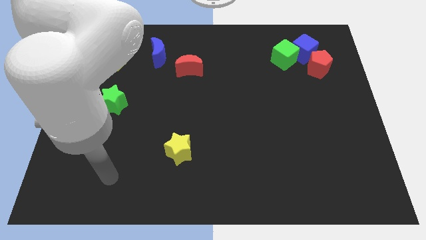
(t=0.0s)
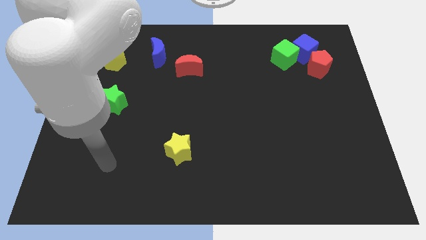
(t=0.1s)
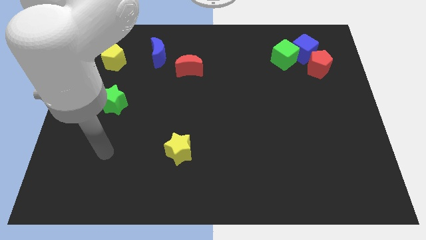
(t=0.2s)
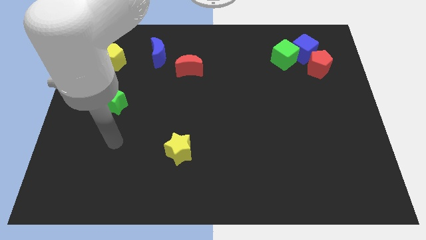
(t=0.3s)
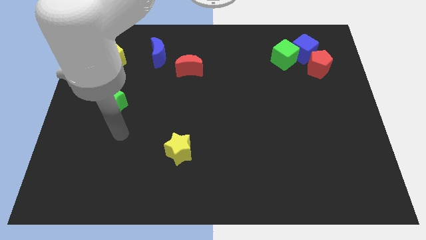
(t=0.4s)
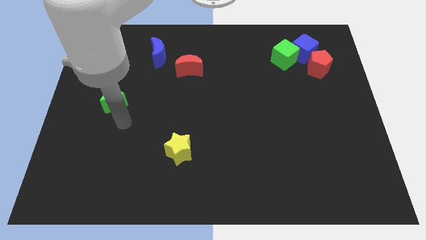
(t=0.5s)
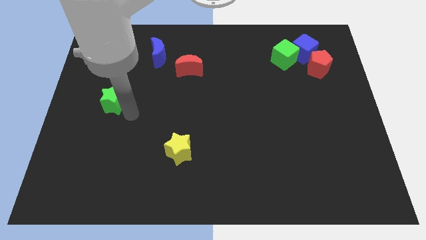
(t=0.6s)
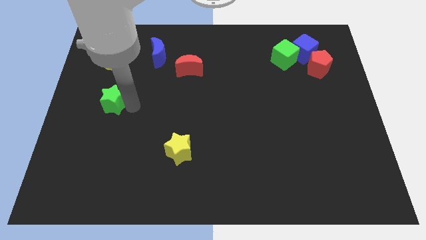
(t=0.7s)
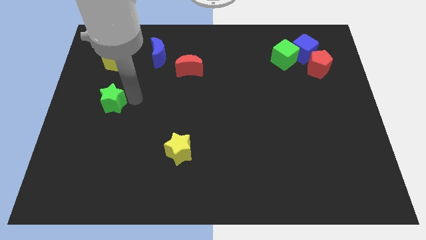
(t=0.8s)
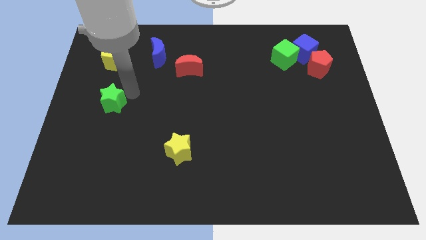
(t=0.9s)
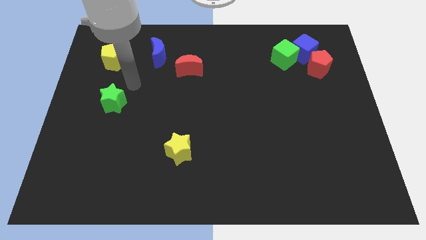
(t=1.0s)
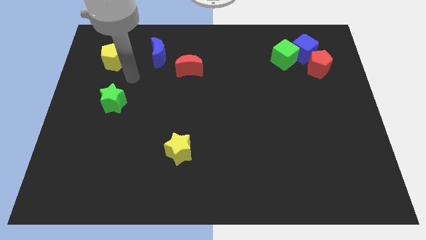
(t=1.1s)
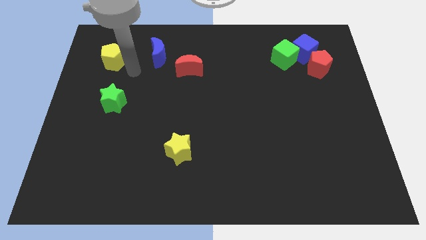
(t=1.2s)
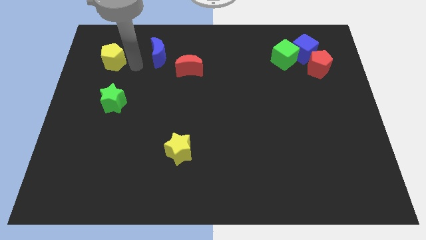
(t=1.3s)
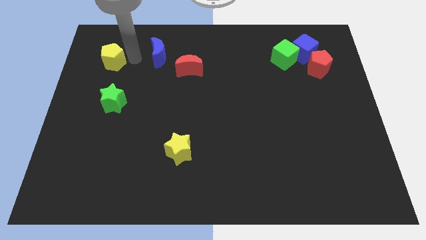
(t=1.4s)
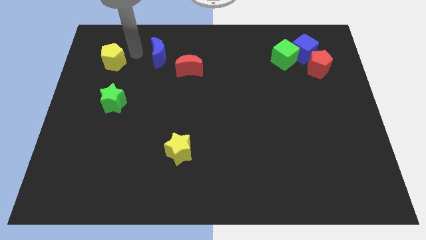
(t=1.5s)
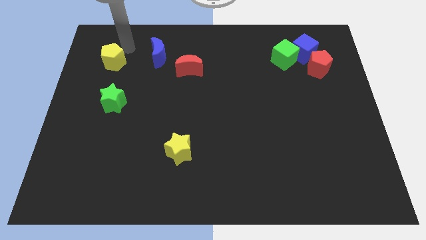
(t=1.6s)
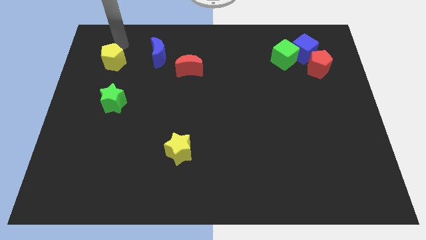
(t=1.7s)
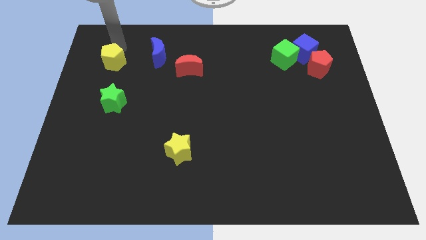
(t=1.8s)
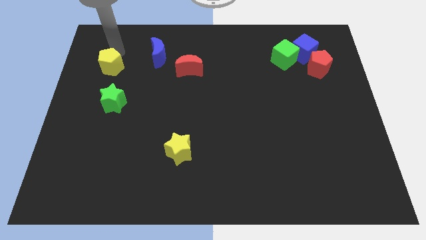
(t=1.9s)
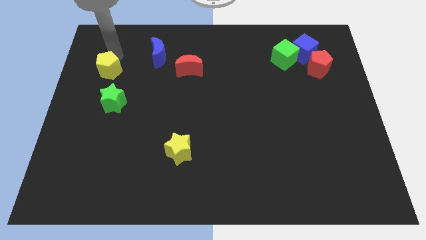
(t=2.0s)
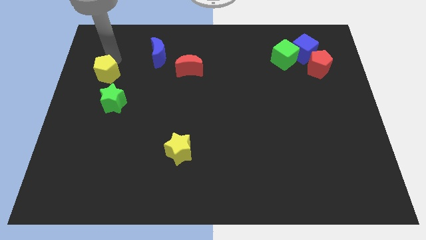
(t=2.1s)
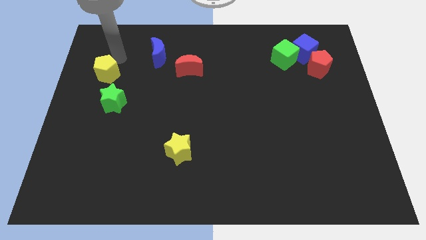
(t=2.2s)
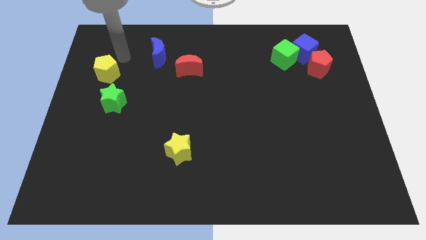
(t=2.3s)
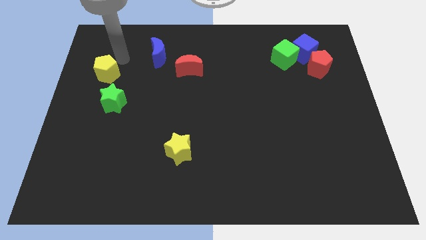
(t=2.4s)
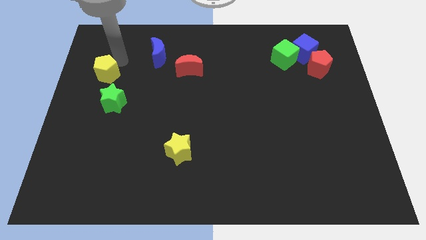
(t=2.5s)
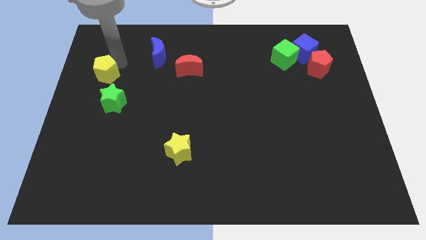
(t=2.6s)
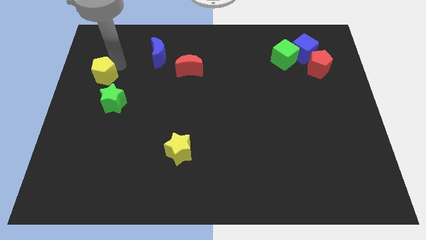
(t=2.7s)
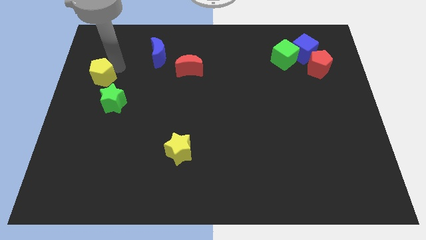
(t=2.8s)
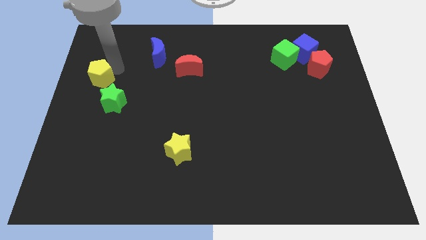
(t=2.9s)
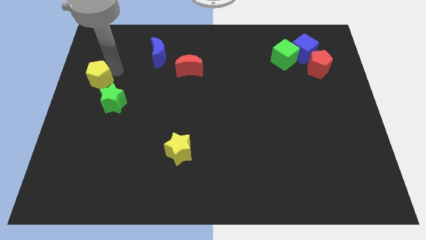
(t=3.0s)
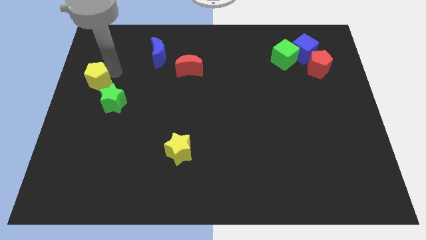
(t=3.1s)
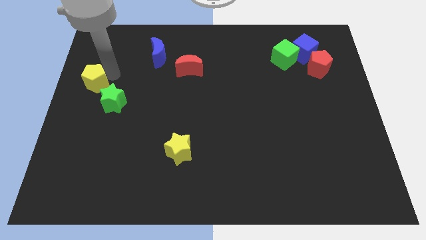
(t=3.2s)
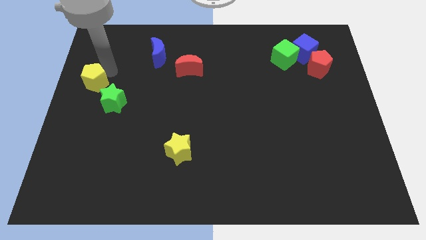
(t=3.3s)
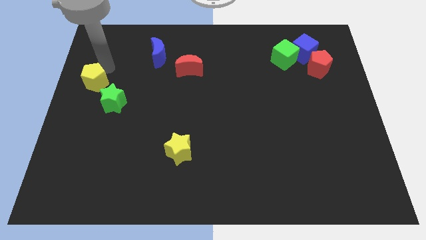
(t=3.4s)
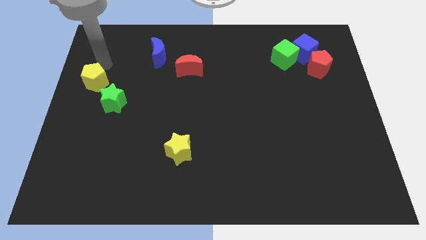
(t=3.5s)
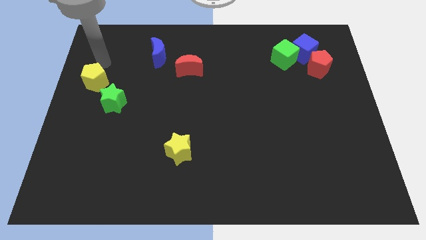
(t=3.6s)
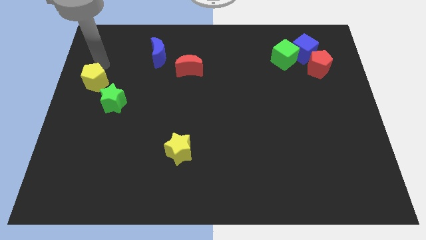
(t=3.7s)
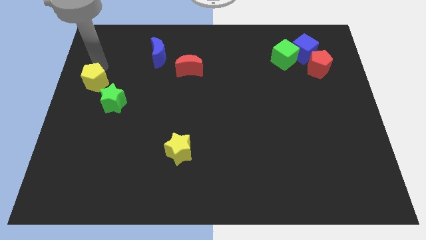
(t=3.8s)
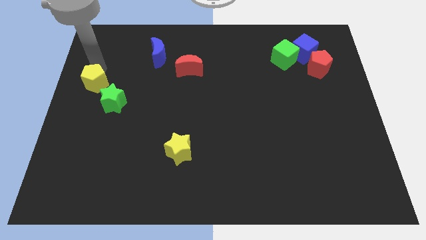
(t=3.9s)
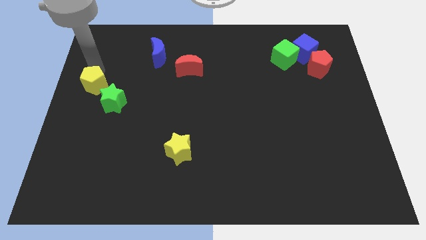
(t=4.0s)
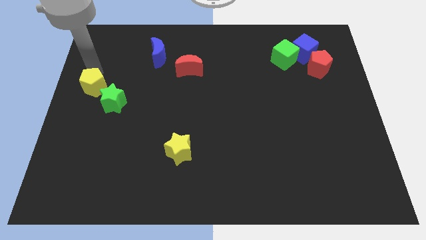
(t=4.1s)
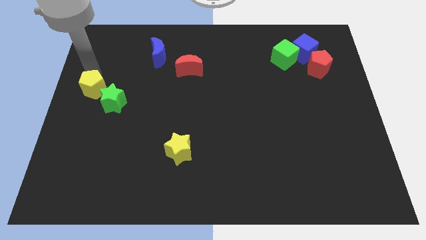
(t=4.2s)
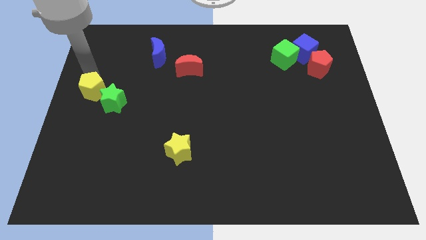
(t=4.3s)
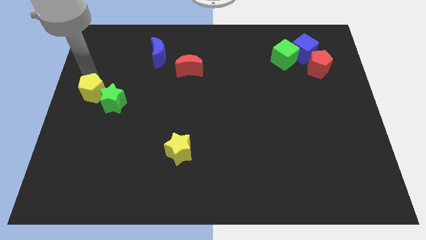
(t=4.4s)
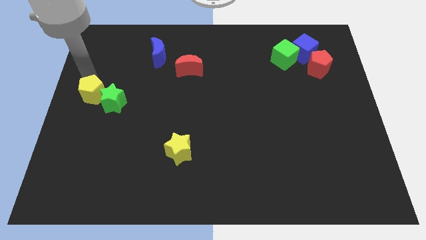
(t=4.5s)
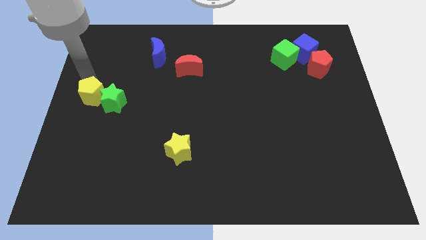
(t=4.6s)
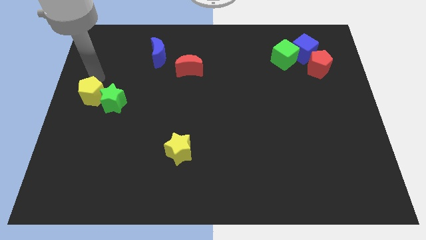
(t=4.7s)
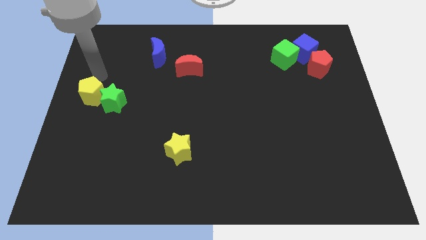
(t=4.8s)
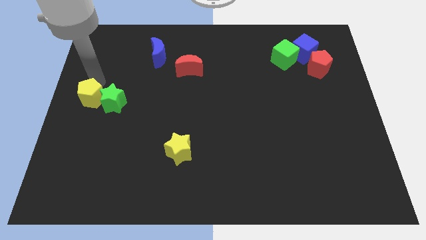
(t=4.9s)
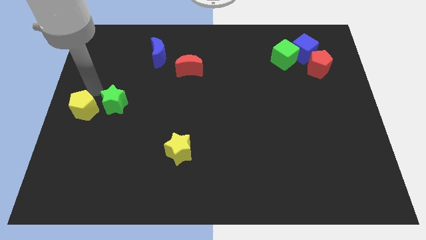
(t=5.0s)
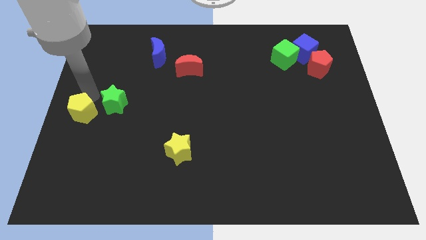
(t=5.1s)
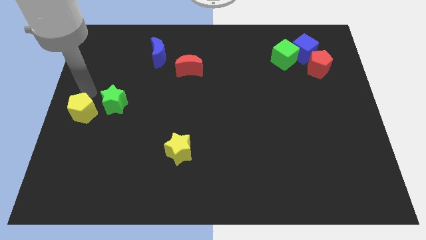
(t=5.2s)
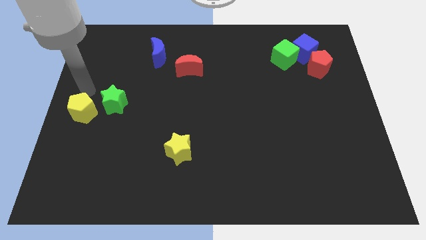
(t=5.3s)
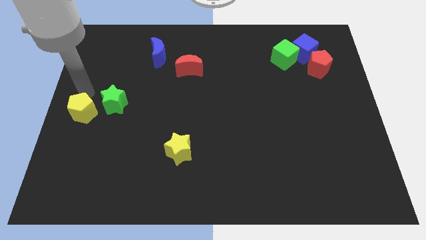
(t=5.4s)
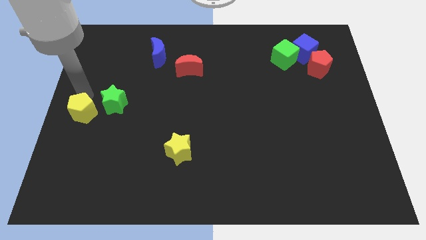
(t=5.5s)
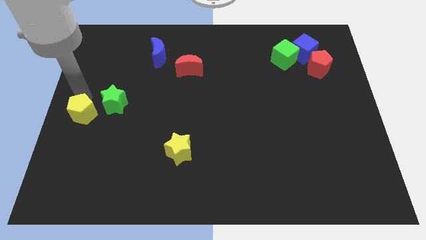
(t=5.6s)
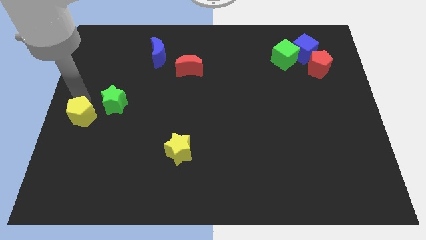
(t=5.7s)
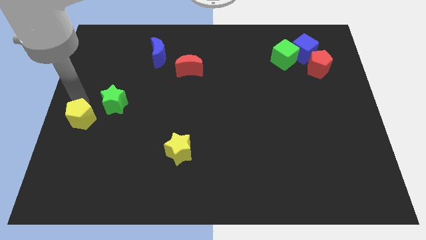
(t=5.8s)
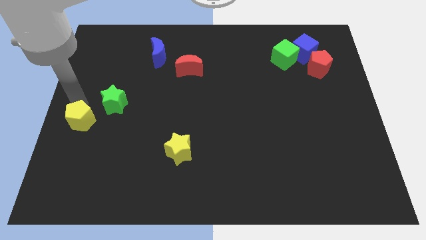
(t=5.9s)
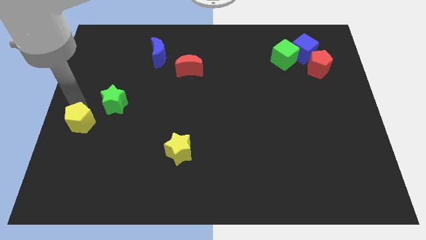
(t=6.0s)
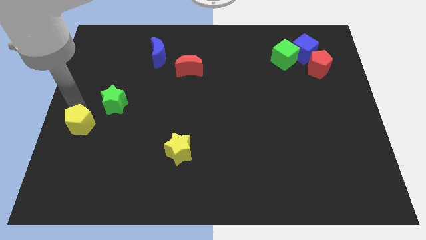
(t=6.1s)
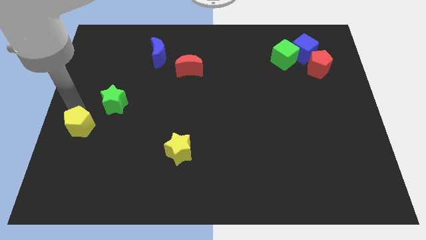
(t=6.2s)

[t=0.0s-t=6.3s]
move the yellow pentagon downwards

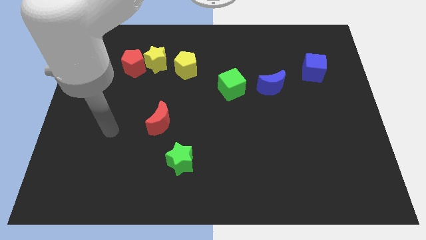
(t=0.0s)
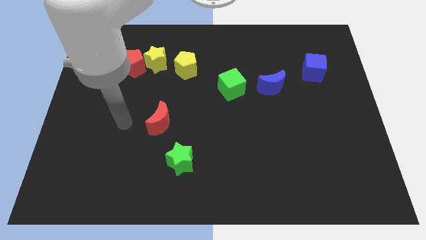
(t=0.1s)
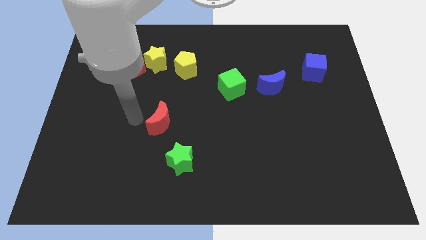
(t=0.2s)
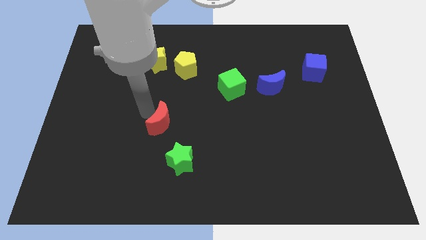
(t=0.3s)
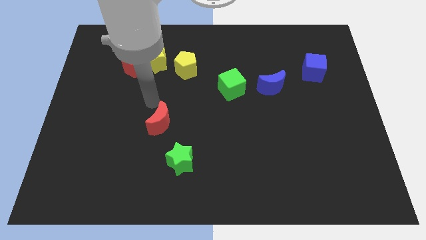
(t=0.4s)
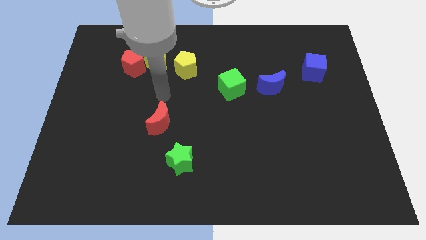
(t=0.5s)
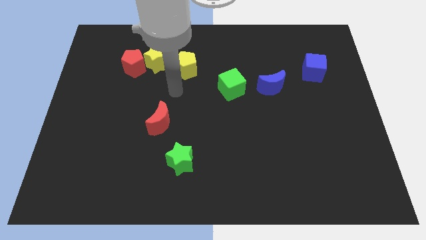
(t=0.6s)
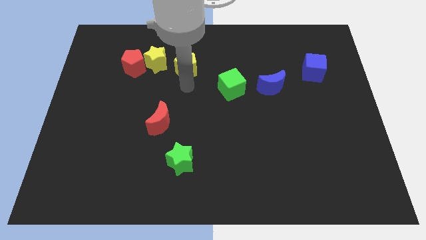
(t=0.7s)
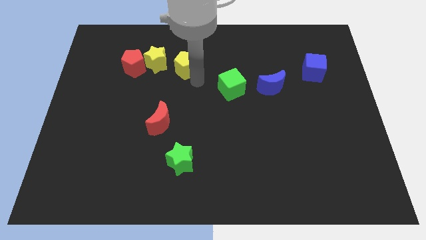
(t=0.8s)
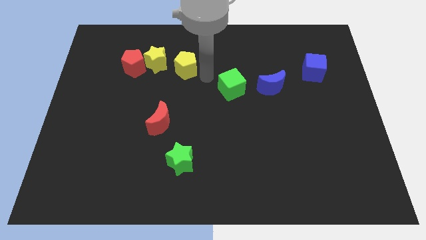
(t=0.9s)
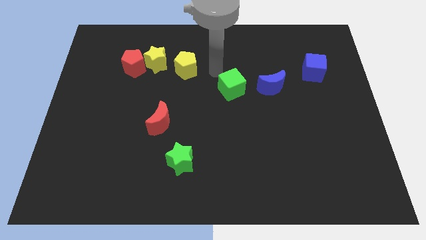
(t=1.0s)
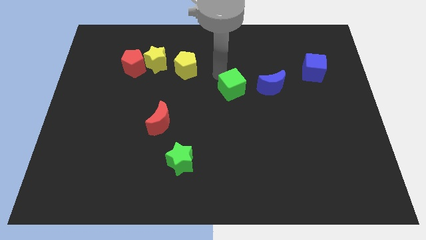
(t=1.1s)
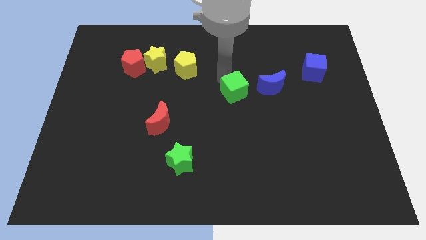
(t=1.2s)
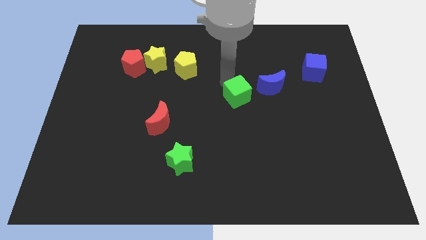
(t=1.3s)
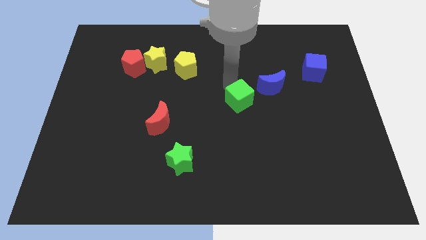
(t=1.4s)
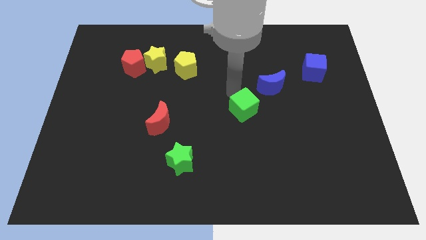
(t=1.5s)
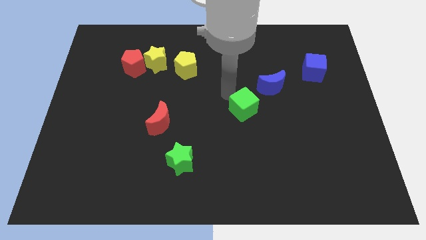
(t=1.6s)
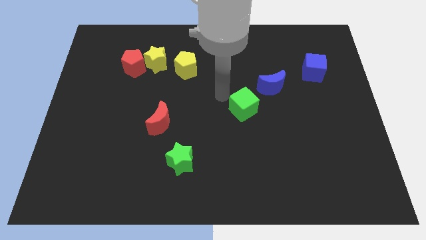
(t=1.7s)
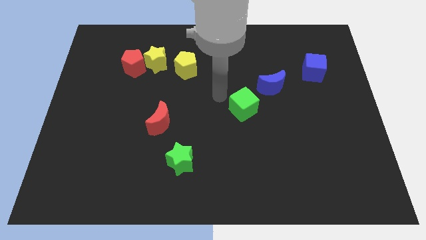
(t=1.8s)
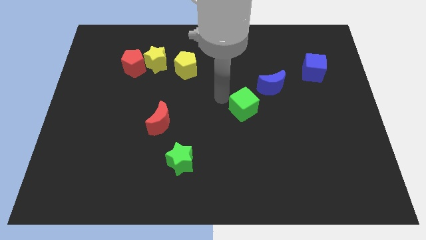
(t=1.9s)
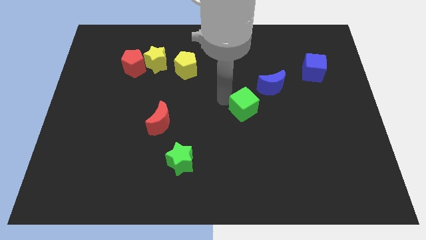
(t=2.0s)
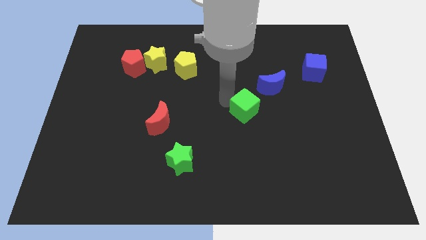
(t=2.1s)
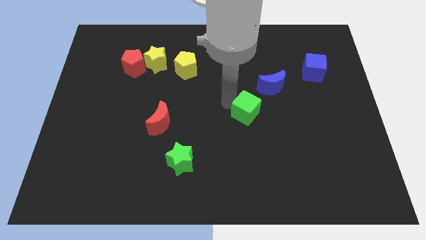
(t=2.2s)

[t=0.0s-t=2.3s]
slightly push the green cube down and right diagonally
